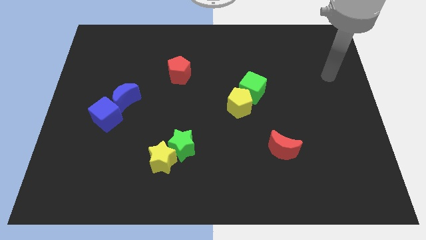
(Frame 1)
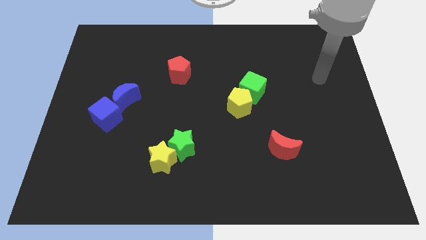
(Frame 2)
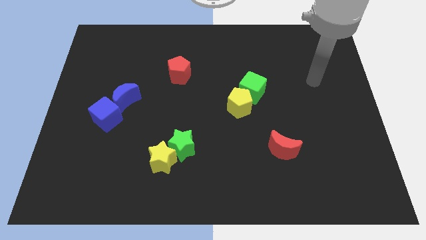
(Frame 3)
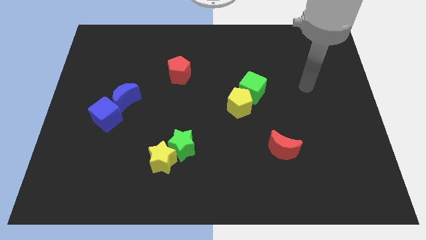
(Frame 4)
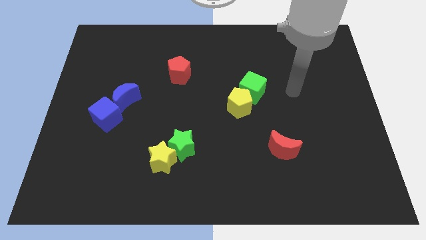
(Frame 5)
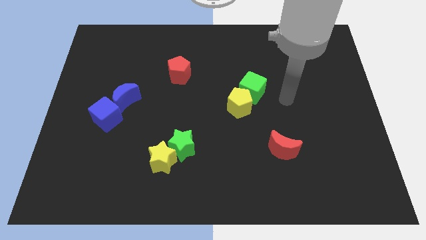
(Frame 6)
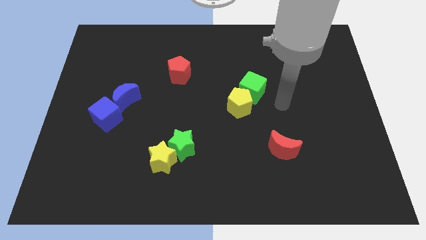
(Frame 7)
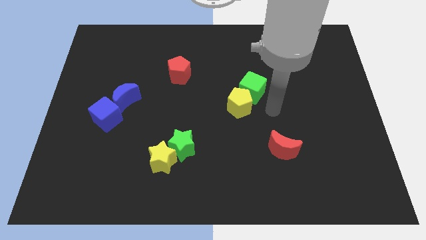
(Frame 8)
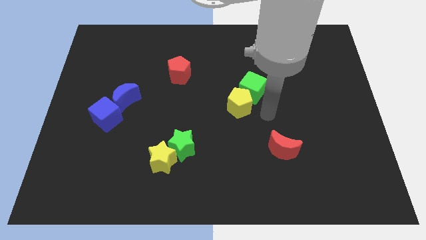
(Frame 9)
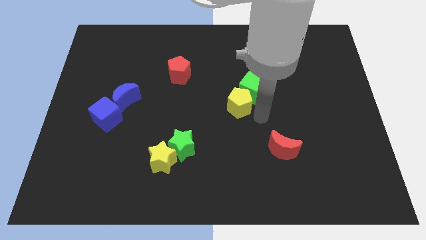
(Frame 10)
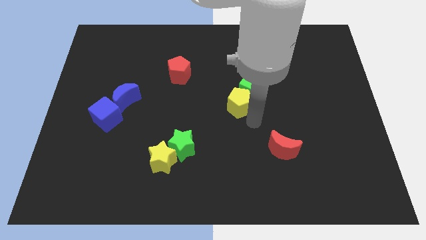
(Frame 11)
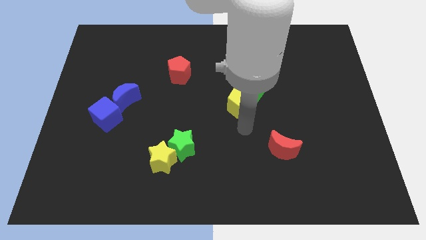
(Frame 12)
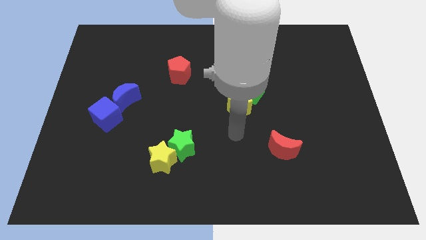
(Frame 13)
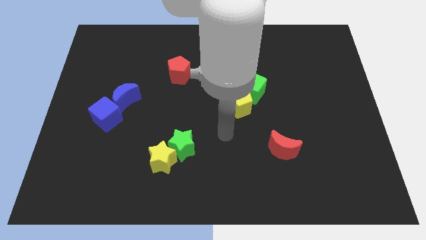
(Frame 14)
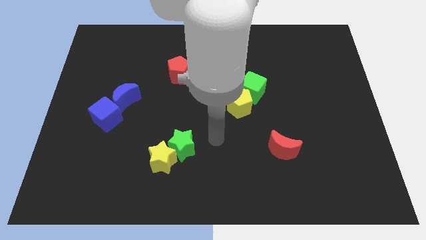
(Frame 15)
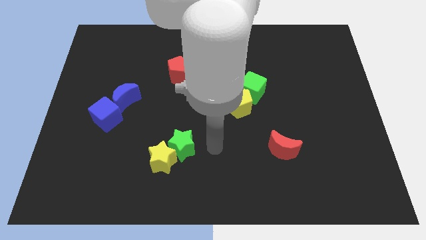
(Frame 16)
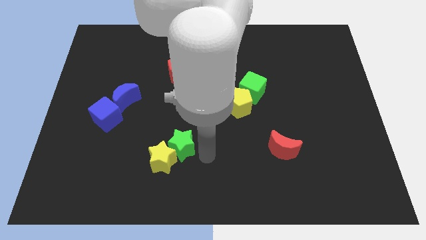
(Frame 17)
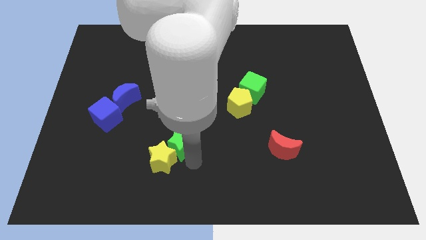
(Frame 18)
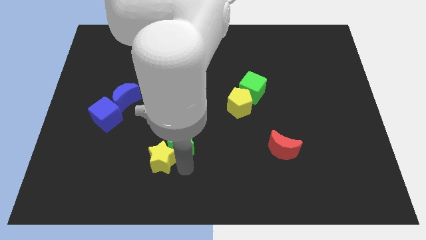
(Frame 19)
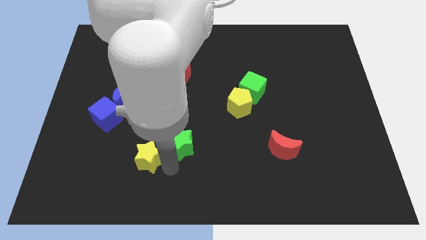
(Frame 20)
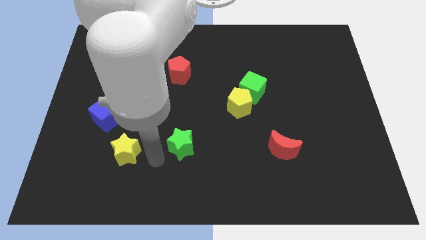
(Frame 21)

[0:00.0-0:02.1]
separate the green star from the yellow star

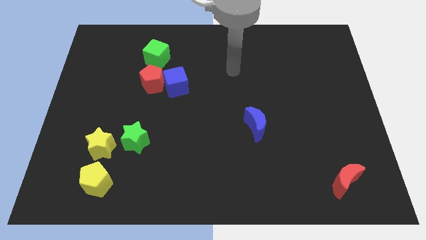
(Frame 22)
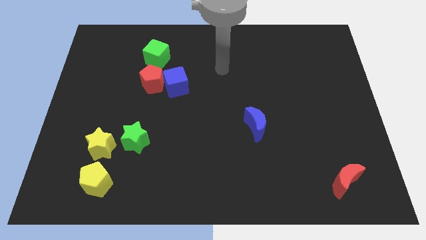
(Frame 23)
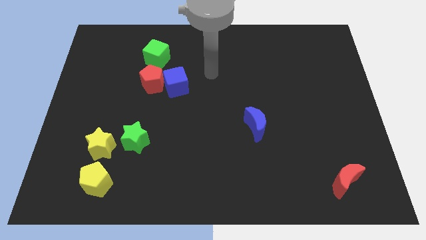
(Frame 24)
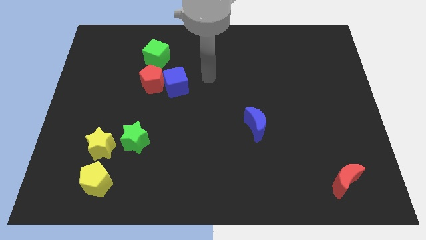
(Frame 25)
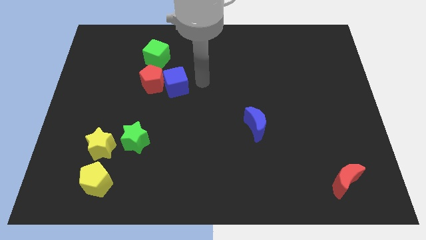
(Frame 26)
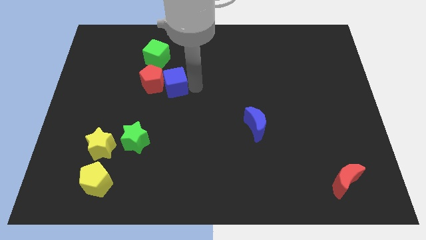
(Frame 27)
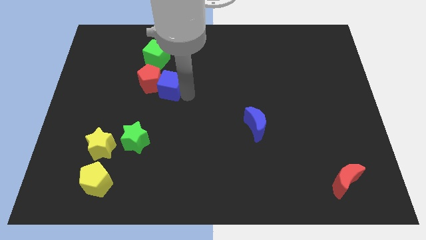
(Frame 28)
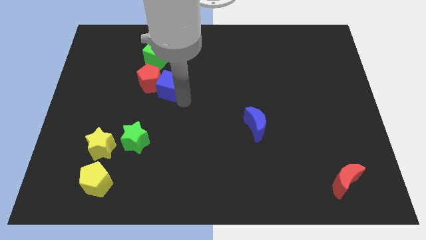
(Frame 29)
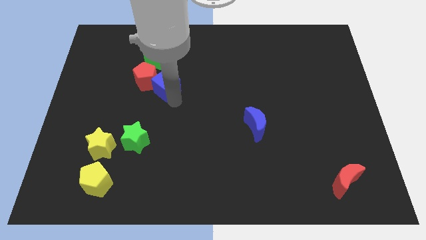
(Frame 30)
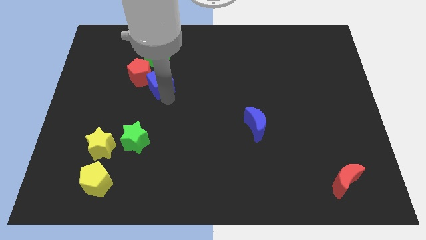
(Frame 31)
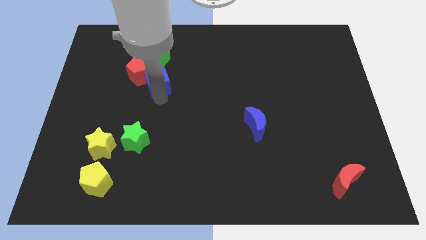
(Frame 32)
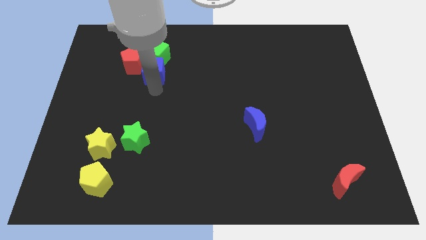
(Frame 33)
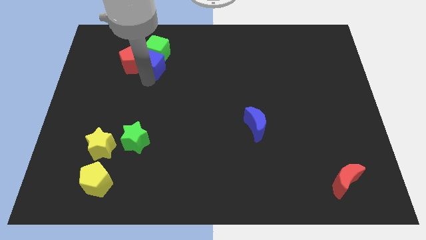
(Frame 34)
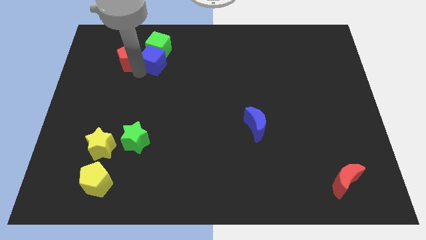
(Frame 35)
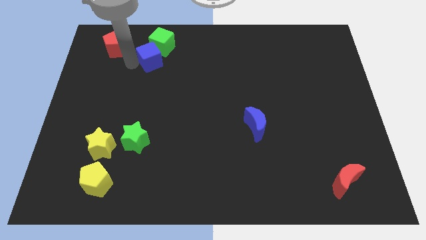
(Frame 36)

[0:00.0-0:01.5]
move the blue cube away from the red pentagon

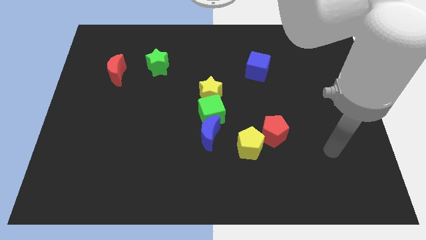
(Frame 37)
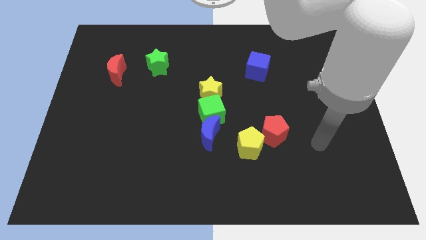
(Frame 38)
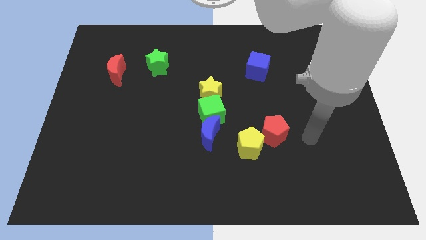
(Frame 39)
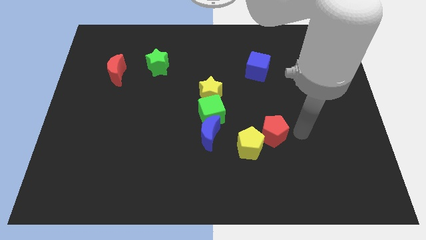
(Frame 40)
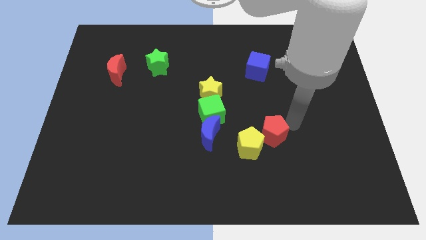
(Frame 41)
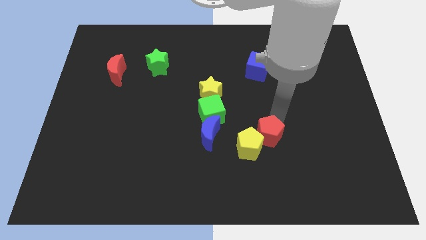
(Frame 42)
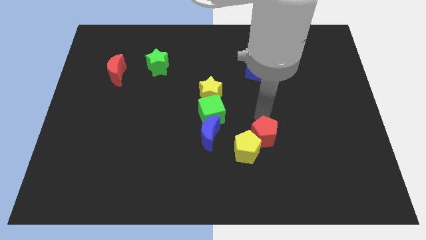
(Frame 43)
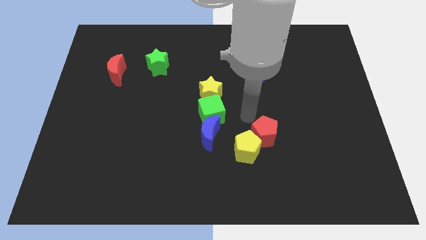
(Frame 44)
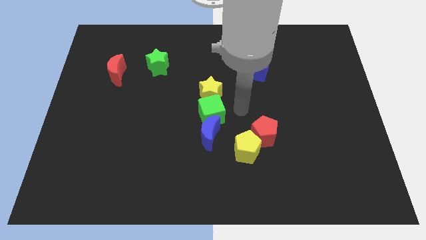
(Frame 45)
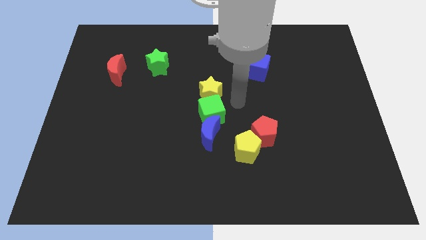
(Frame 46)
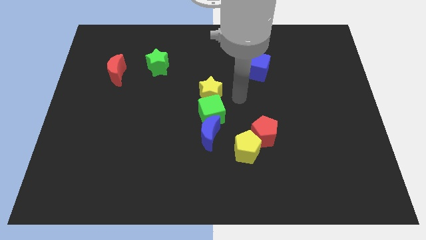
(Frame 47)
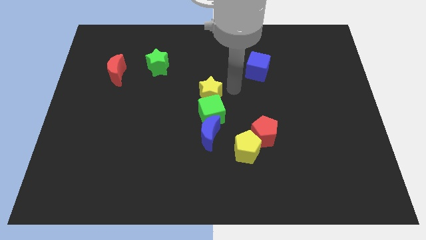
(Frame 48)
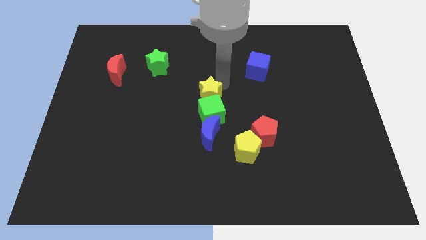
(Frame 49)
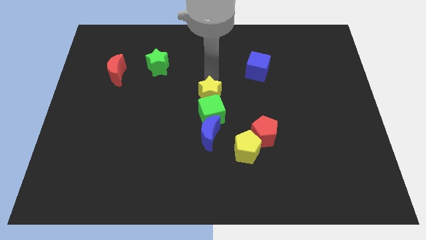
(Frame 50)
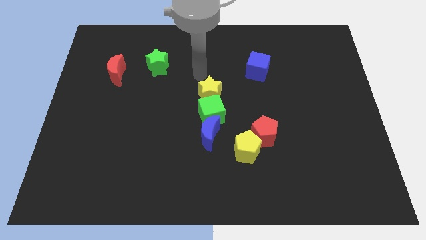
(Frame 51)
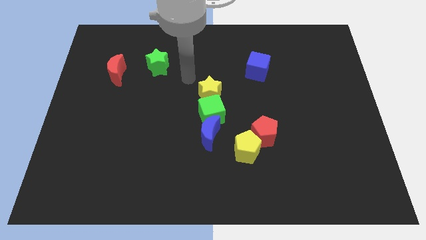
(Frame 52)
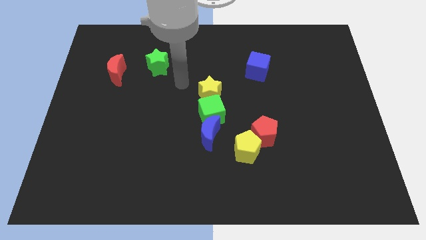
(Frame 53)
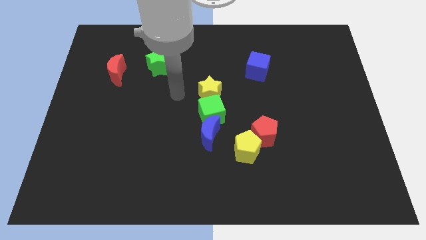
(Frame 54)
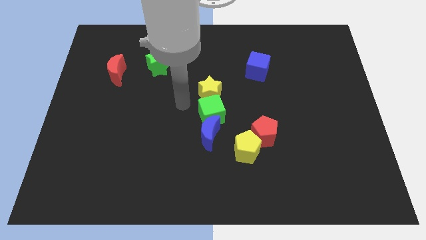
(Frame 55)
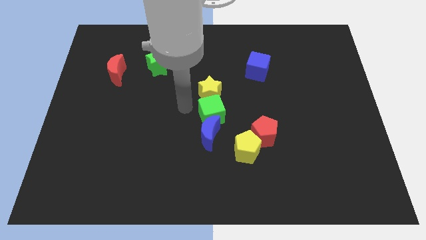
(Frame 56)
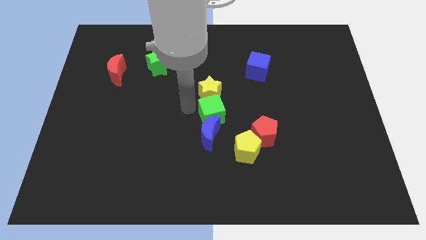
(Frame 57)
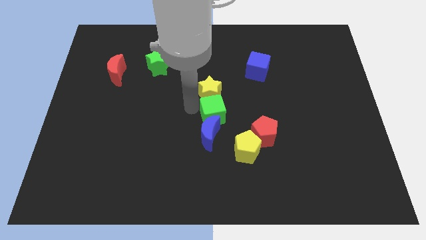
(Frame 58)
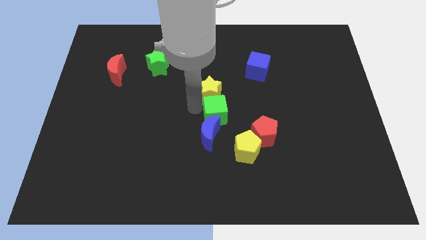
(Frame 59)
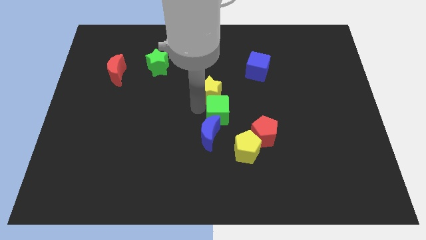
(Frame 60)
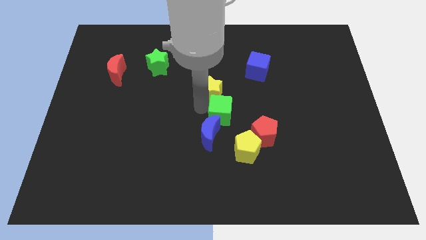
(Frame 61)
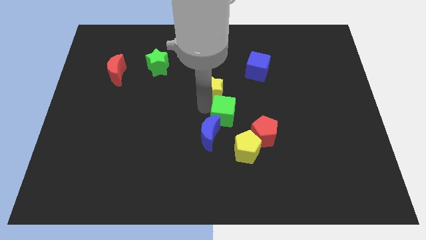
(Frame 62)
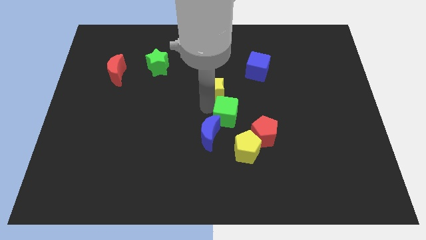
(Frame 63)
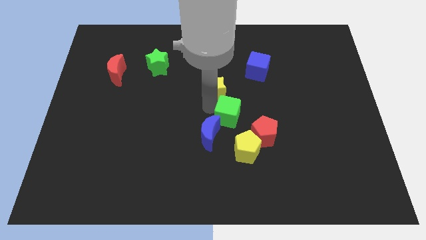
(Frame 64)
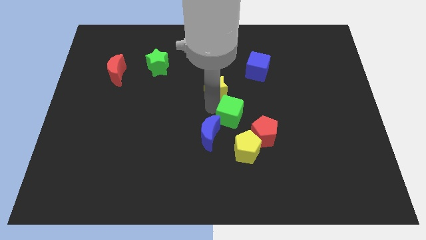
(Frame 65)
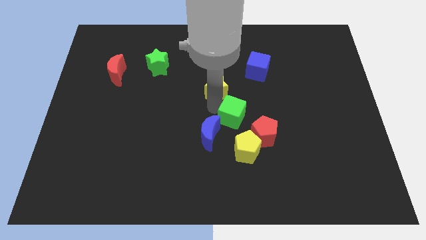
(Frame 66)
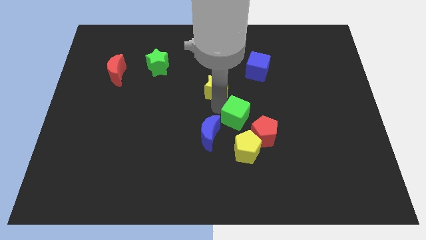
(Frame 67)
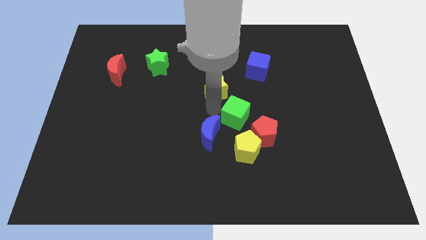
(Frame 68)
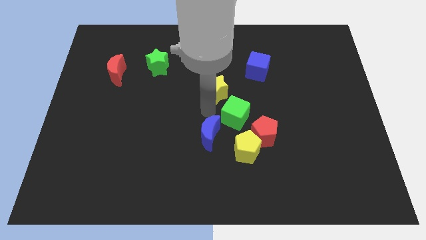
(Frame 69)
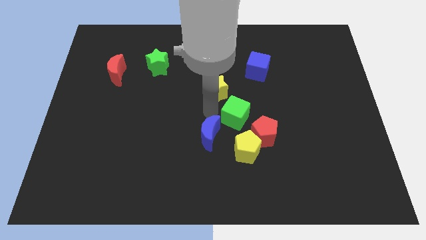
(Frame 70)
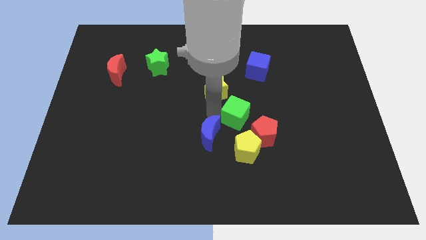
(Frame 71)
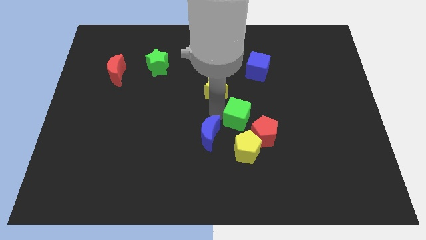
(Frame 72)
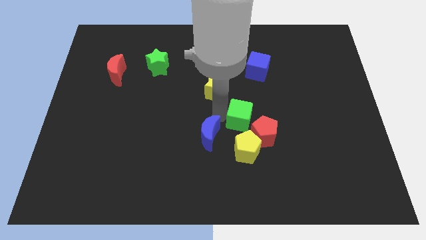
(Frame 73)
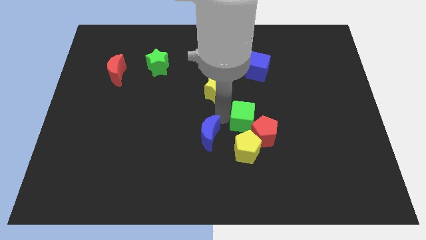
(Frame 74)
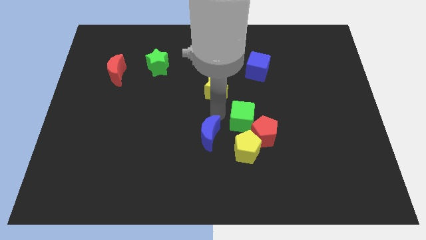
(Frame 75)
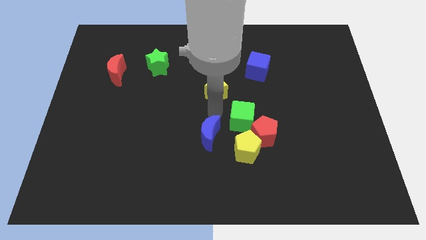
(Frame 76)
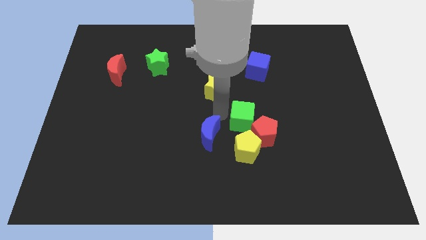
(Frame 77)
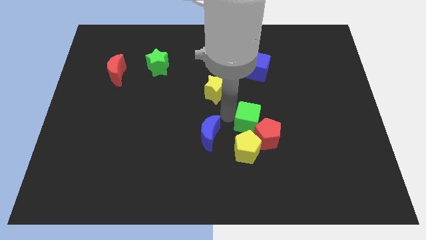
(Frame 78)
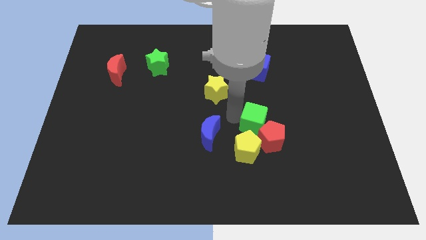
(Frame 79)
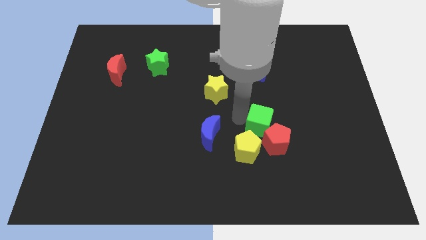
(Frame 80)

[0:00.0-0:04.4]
pull the green cube apart from the blue moon and yellow star

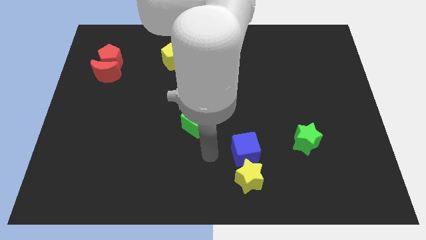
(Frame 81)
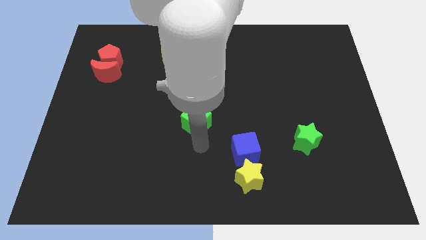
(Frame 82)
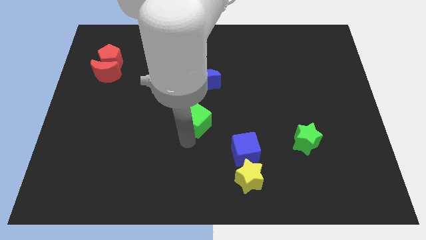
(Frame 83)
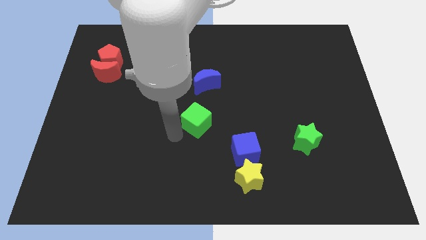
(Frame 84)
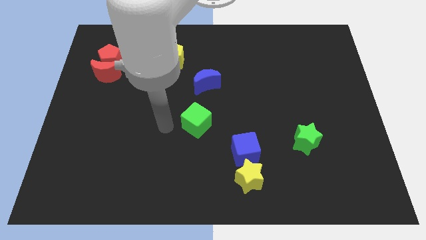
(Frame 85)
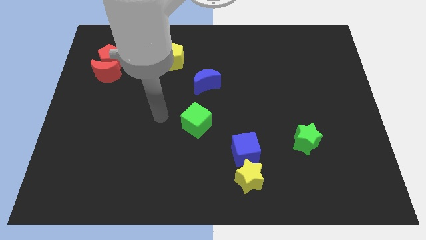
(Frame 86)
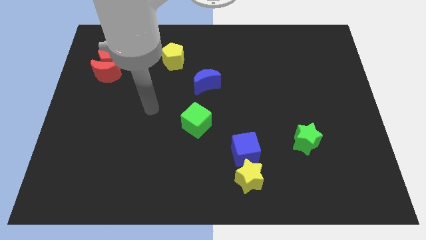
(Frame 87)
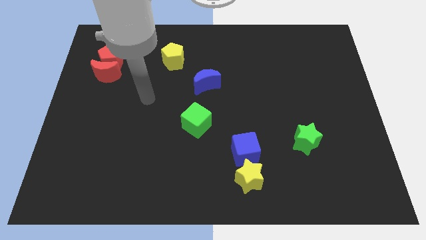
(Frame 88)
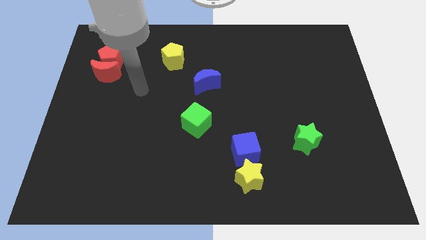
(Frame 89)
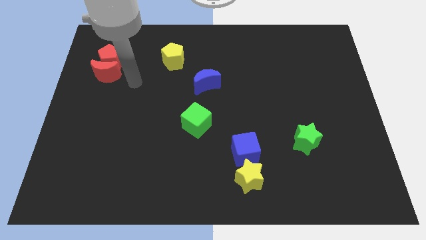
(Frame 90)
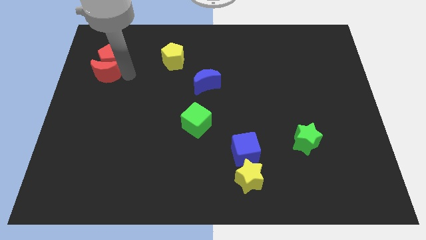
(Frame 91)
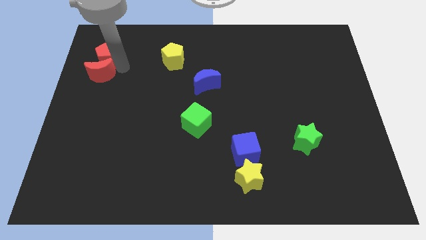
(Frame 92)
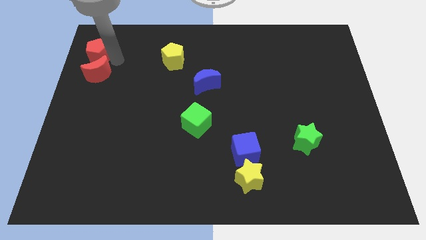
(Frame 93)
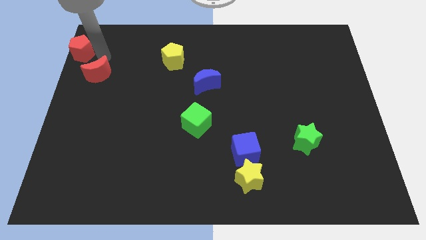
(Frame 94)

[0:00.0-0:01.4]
pull the red moon apart from the red pentagon
